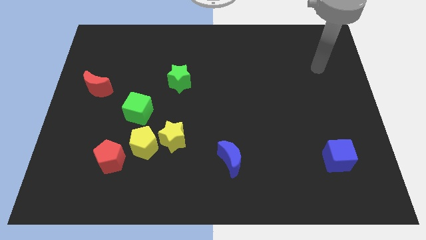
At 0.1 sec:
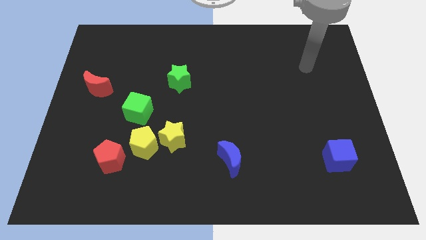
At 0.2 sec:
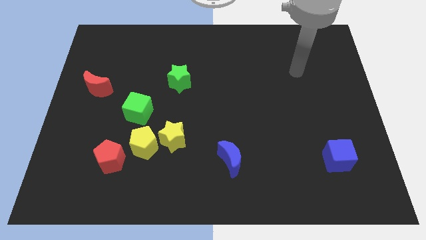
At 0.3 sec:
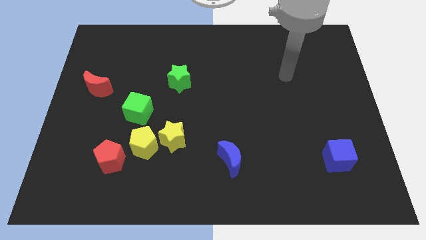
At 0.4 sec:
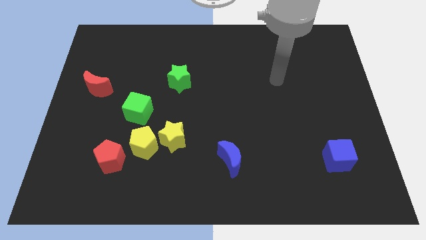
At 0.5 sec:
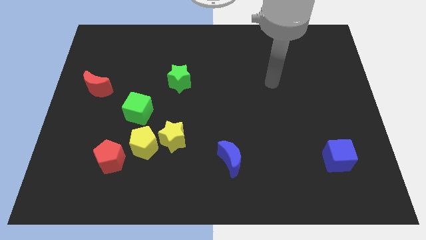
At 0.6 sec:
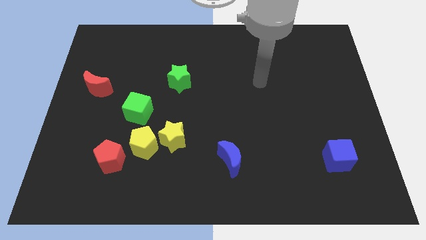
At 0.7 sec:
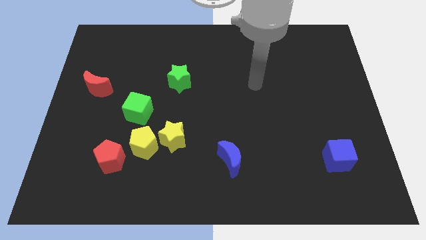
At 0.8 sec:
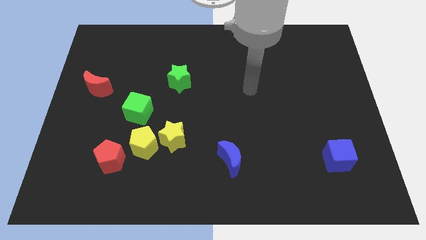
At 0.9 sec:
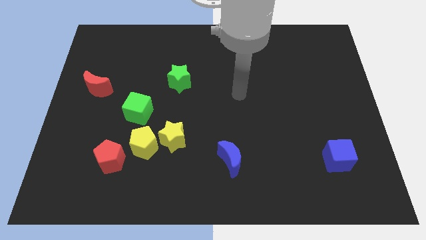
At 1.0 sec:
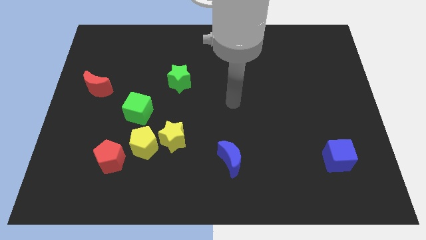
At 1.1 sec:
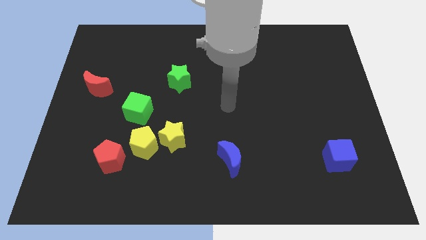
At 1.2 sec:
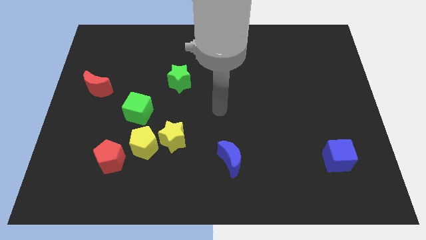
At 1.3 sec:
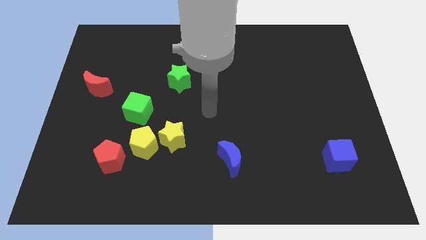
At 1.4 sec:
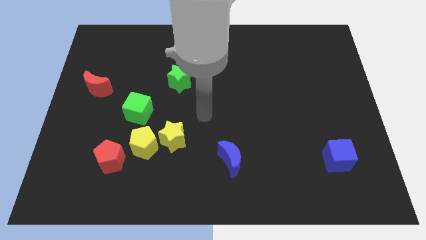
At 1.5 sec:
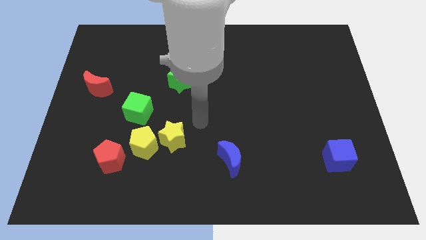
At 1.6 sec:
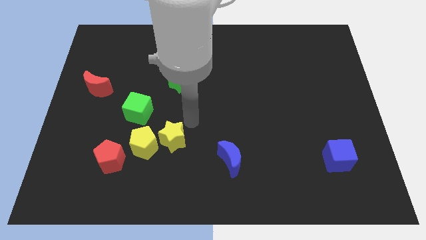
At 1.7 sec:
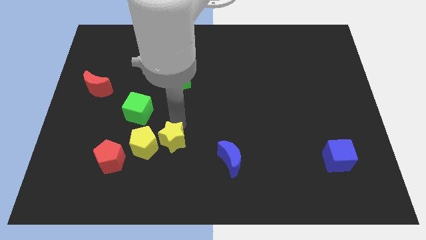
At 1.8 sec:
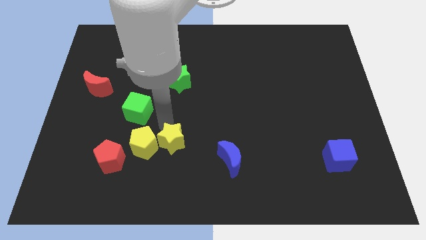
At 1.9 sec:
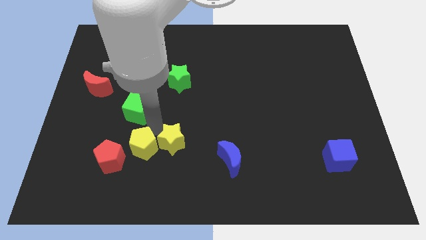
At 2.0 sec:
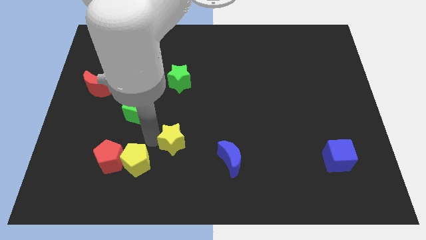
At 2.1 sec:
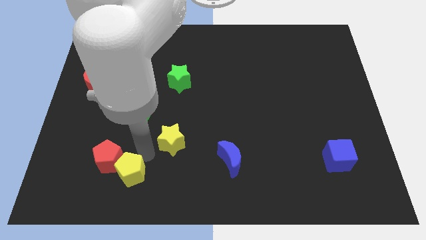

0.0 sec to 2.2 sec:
separate the yellow star from the yellow pentagon

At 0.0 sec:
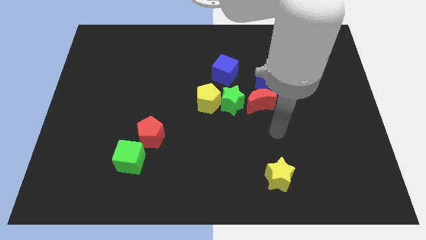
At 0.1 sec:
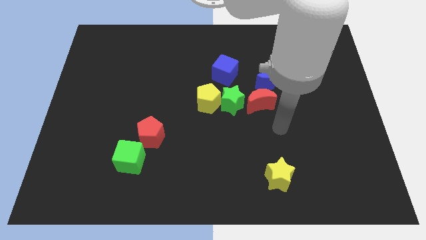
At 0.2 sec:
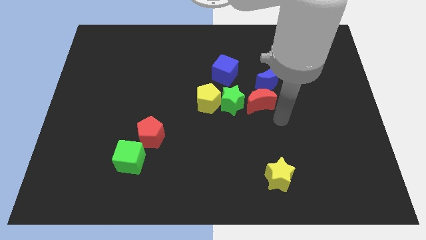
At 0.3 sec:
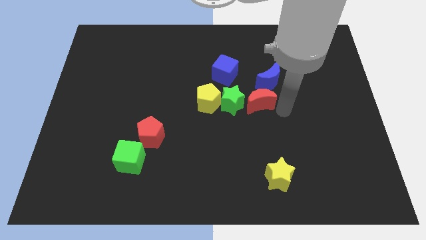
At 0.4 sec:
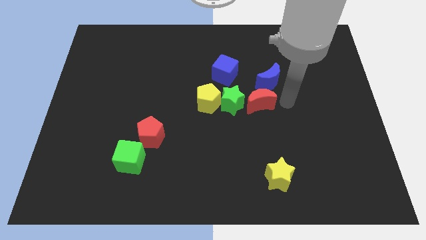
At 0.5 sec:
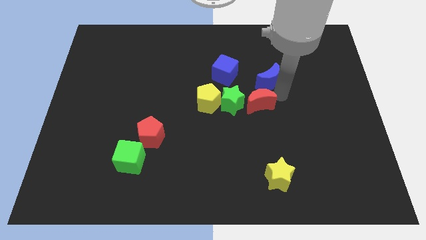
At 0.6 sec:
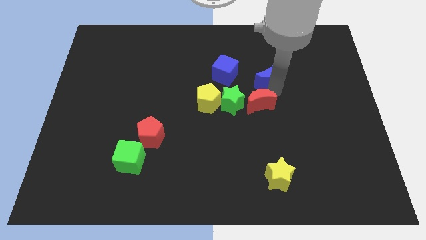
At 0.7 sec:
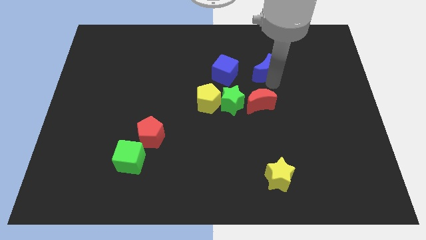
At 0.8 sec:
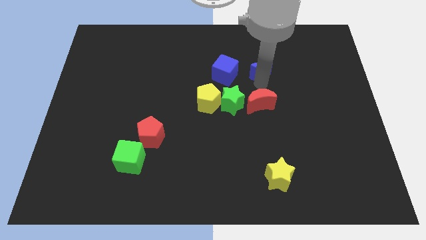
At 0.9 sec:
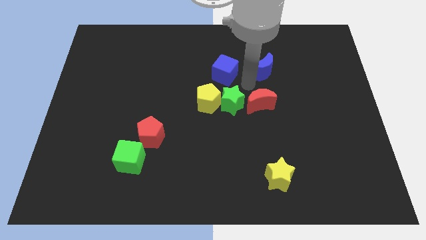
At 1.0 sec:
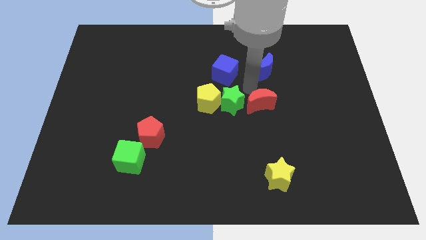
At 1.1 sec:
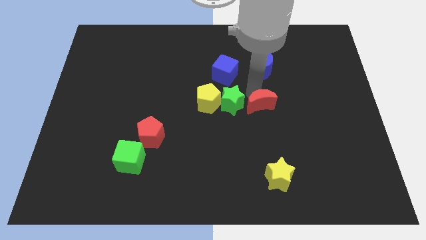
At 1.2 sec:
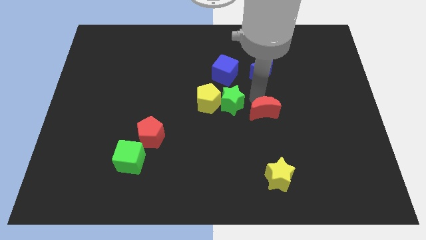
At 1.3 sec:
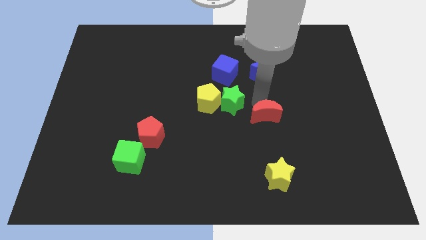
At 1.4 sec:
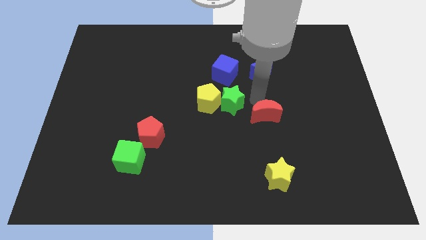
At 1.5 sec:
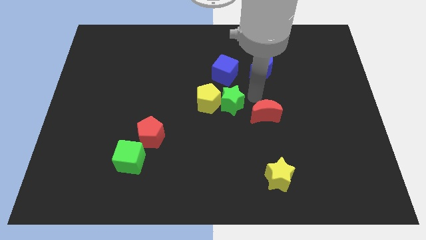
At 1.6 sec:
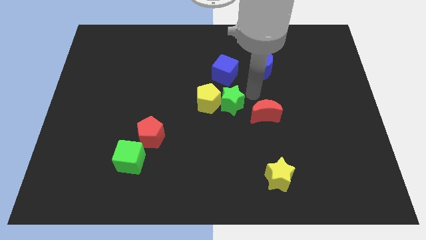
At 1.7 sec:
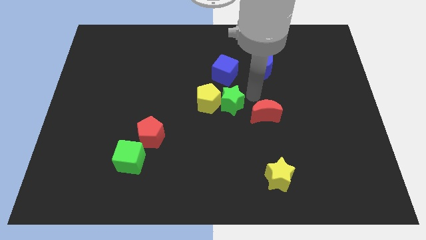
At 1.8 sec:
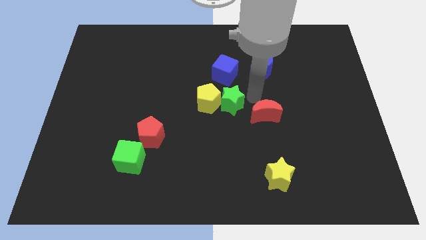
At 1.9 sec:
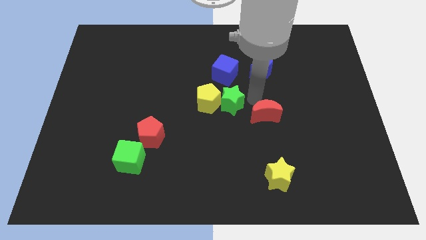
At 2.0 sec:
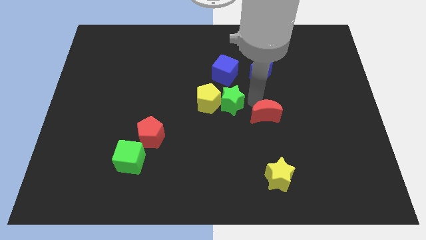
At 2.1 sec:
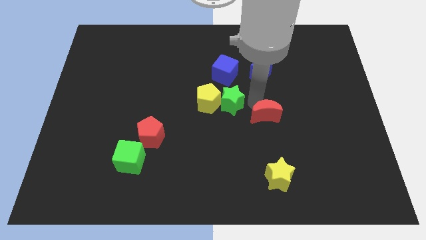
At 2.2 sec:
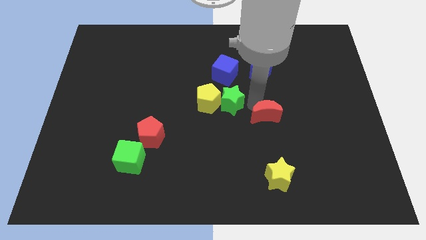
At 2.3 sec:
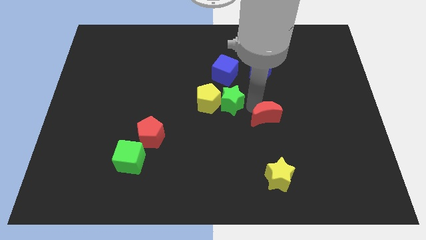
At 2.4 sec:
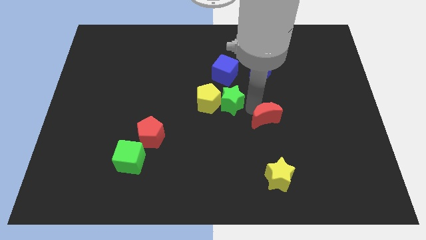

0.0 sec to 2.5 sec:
move the red moon away from the green star and blue moon

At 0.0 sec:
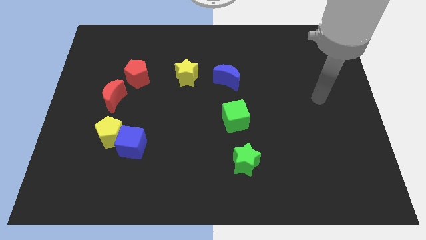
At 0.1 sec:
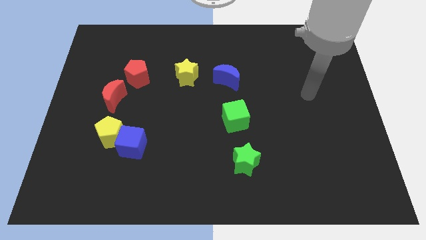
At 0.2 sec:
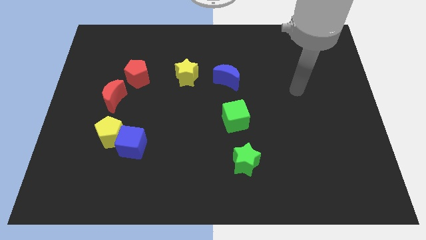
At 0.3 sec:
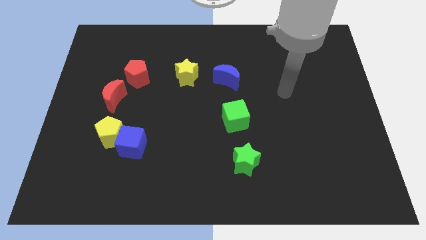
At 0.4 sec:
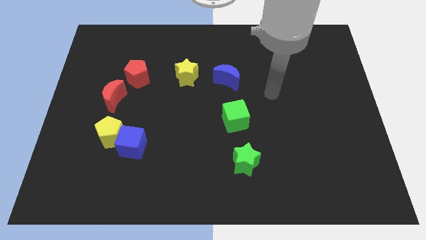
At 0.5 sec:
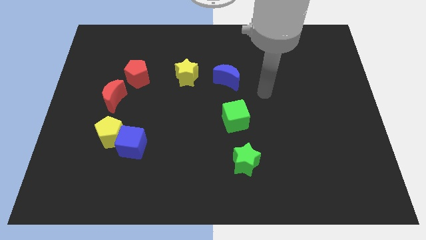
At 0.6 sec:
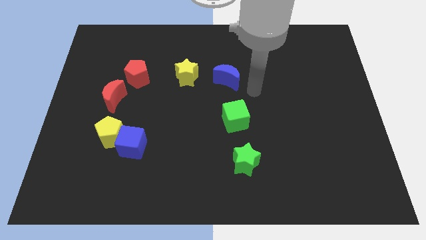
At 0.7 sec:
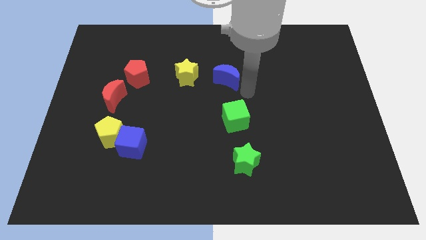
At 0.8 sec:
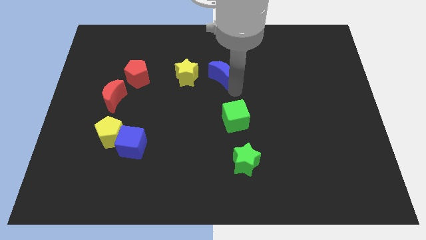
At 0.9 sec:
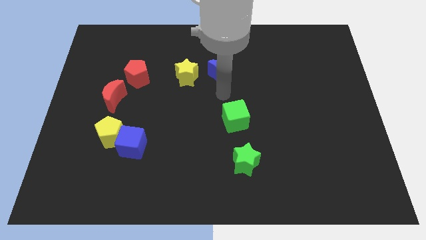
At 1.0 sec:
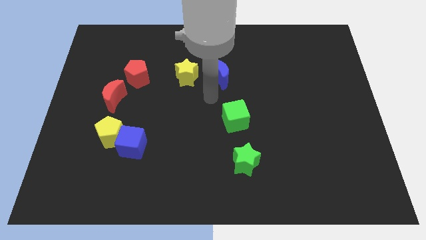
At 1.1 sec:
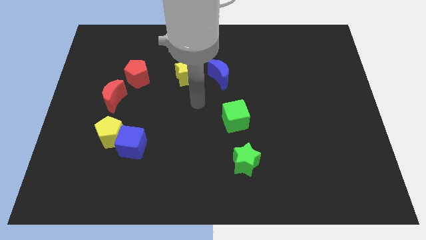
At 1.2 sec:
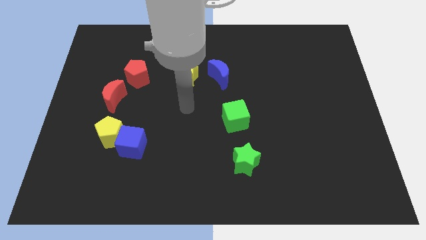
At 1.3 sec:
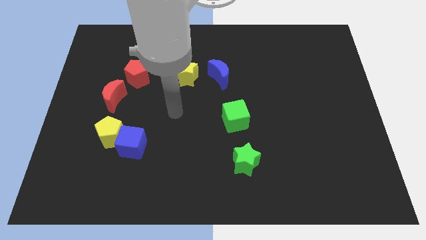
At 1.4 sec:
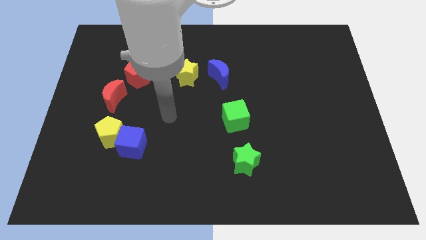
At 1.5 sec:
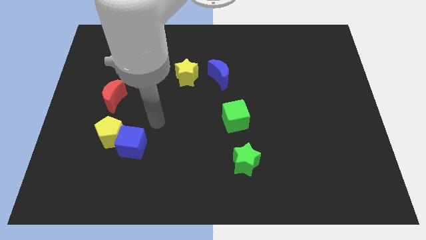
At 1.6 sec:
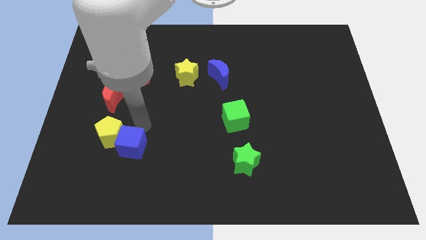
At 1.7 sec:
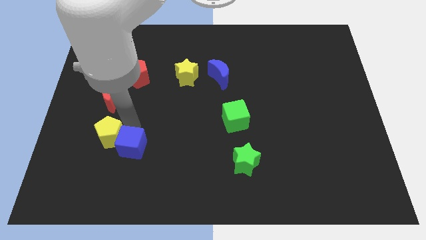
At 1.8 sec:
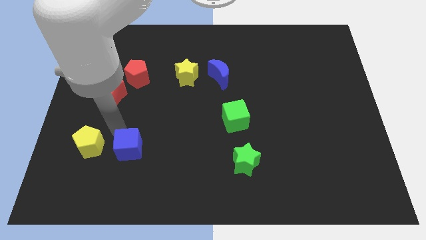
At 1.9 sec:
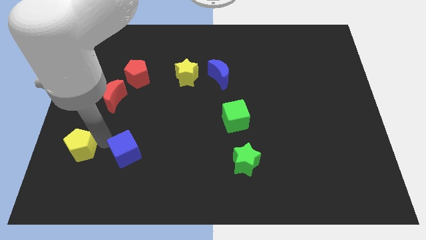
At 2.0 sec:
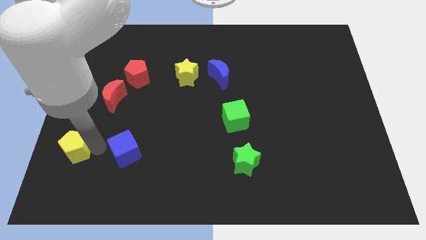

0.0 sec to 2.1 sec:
move the blue cube away from the yellow pentagon

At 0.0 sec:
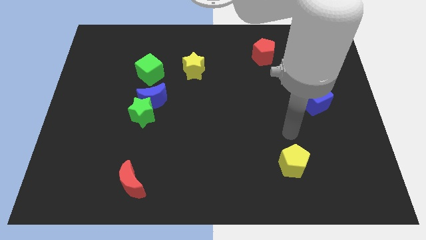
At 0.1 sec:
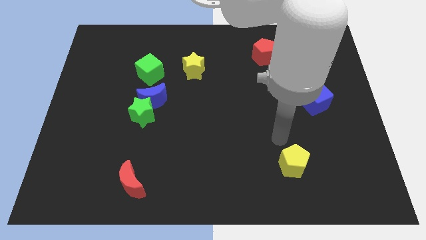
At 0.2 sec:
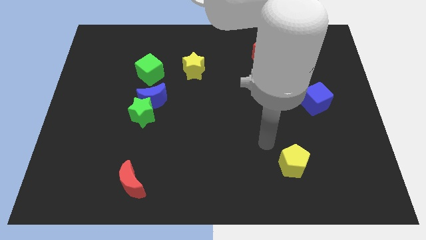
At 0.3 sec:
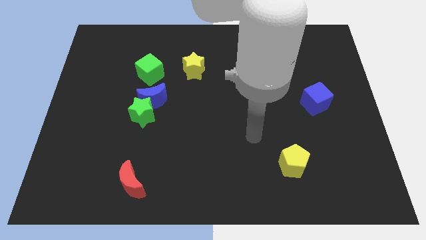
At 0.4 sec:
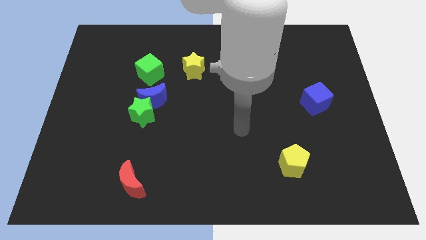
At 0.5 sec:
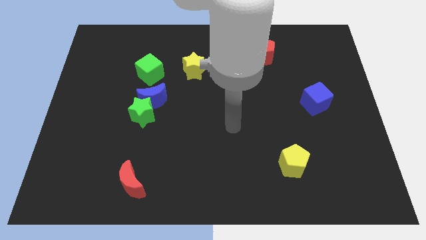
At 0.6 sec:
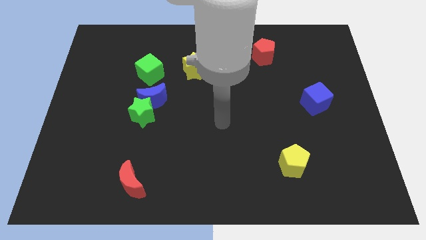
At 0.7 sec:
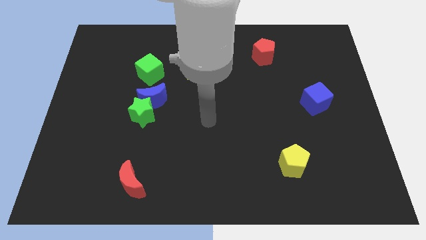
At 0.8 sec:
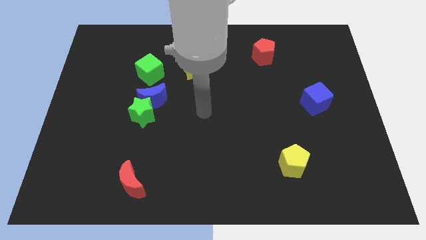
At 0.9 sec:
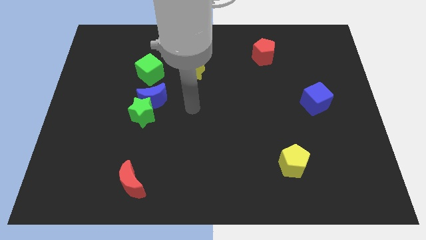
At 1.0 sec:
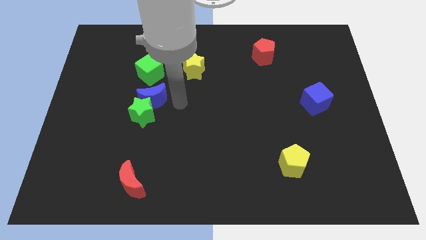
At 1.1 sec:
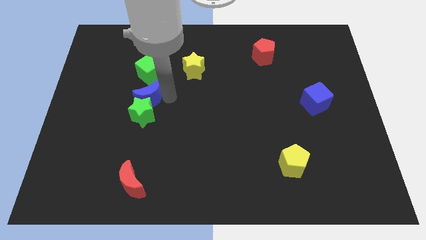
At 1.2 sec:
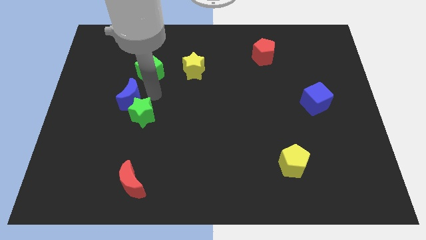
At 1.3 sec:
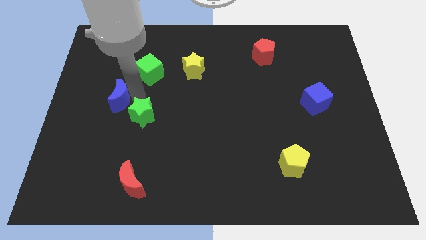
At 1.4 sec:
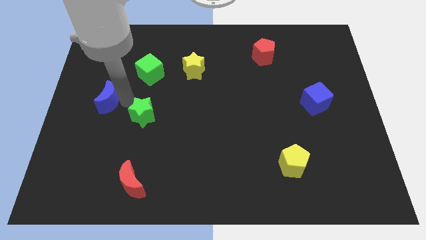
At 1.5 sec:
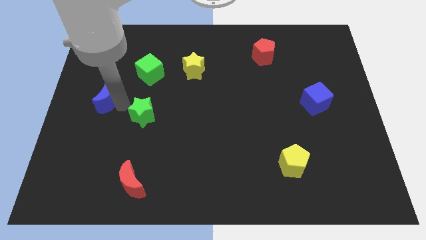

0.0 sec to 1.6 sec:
separate the green star from the blue moon

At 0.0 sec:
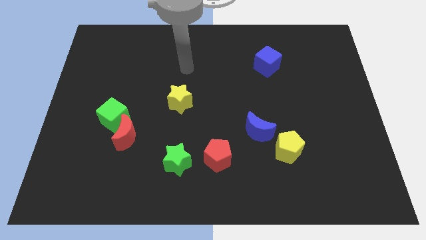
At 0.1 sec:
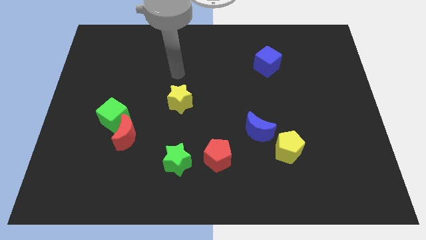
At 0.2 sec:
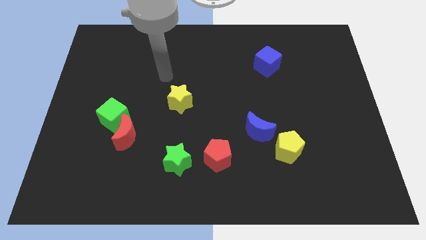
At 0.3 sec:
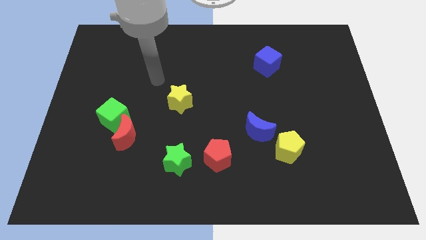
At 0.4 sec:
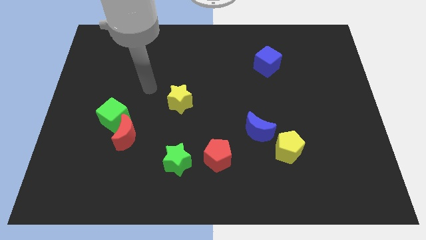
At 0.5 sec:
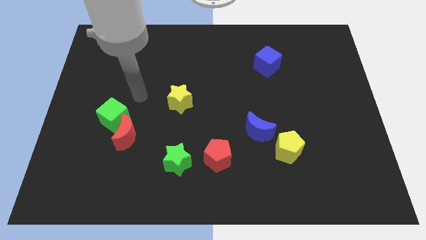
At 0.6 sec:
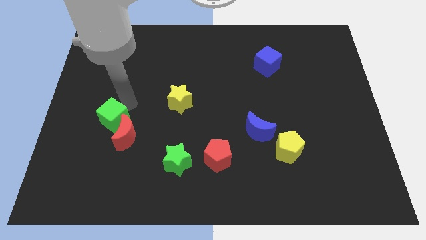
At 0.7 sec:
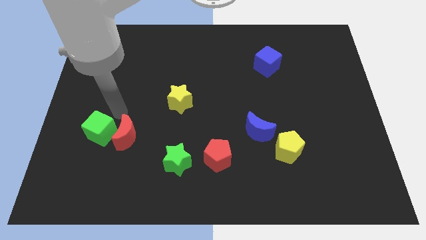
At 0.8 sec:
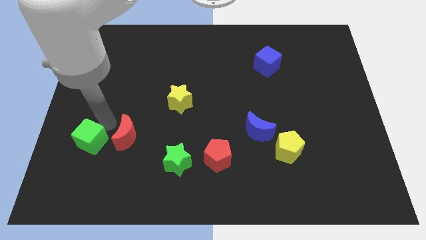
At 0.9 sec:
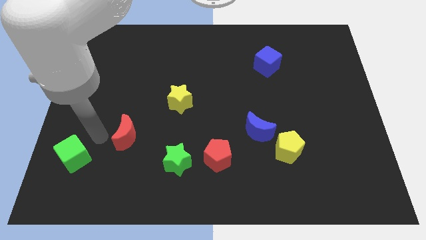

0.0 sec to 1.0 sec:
move the red moon away from the green cube
